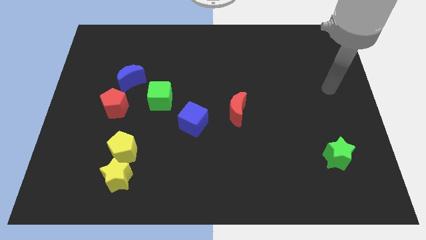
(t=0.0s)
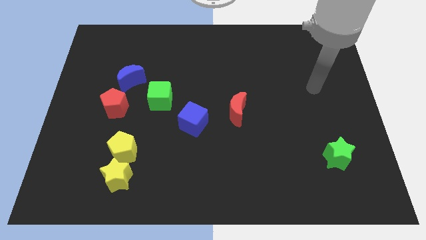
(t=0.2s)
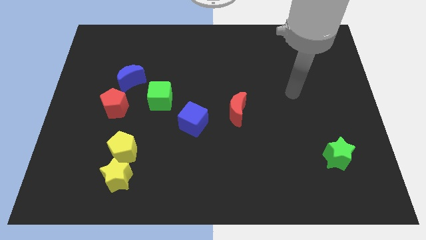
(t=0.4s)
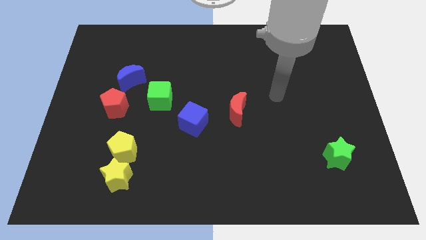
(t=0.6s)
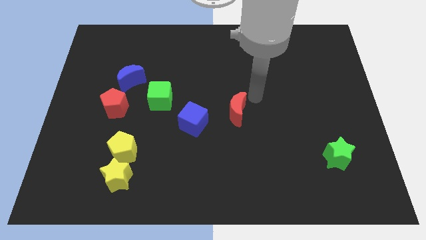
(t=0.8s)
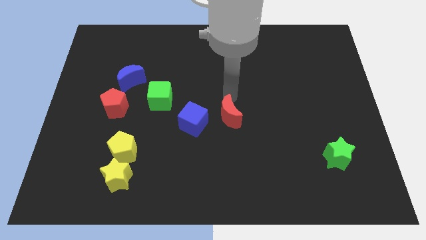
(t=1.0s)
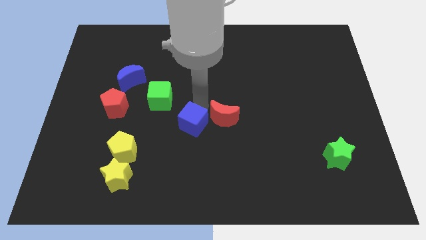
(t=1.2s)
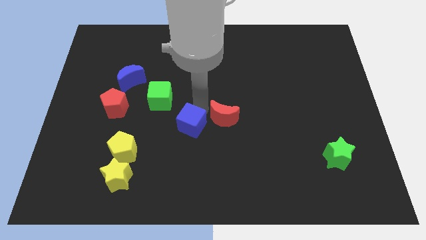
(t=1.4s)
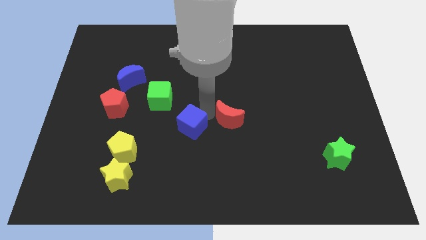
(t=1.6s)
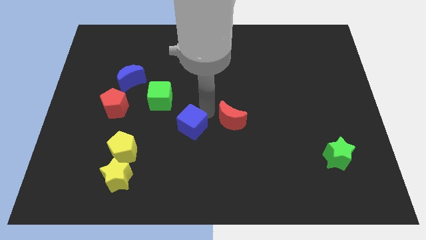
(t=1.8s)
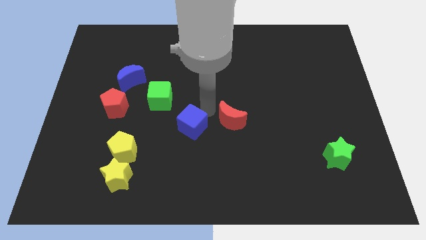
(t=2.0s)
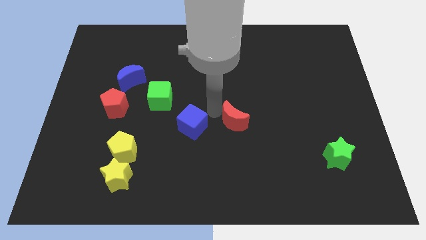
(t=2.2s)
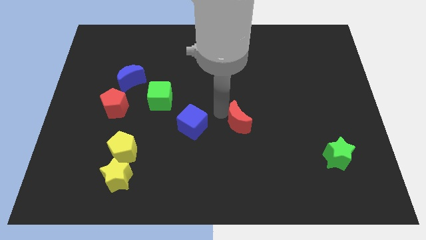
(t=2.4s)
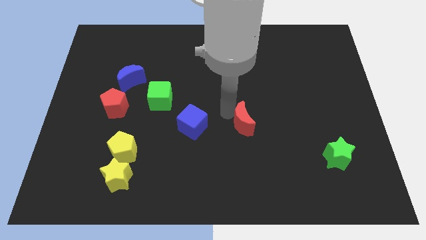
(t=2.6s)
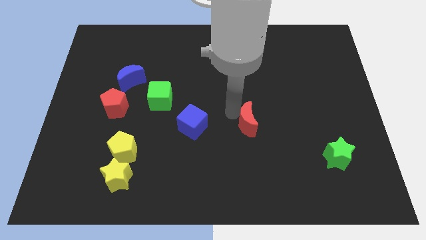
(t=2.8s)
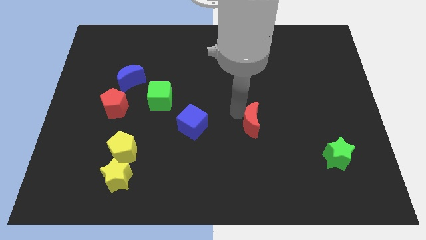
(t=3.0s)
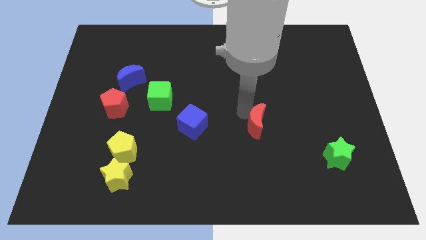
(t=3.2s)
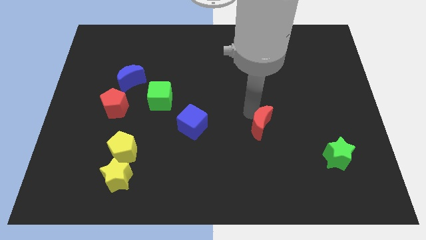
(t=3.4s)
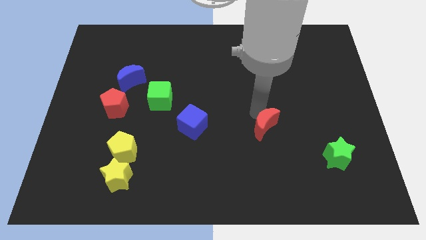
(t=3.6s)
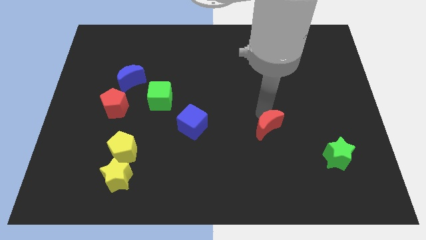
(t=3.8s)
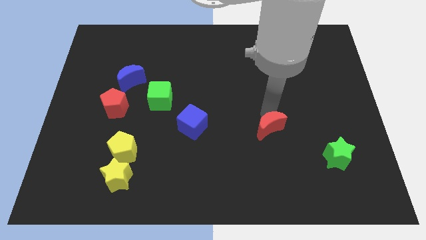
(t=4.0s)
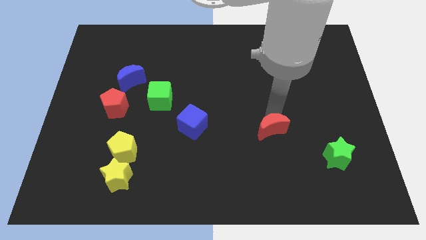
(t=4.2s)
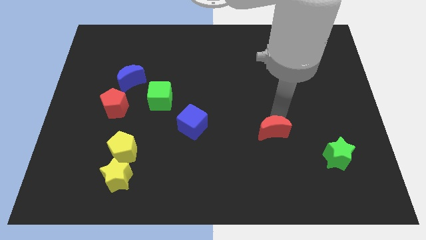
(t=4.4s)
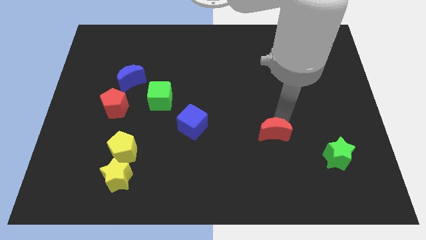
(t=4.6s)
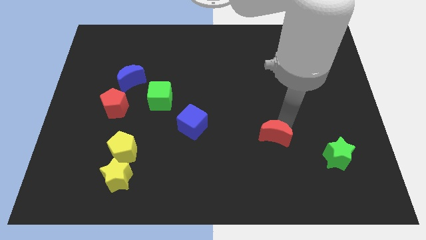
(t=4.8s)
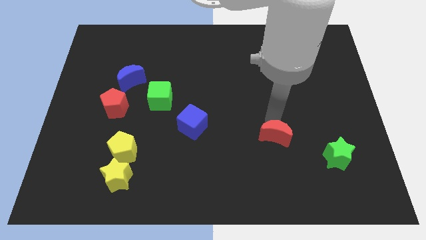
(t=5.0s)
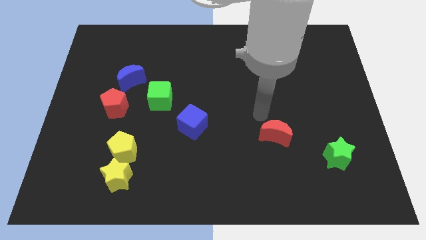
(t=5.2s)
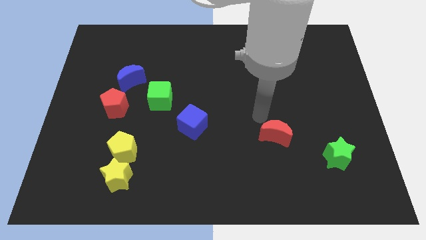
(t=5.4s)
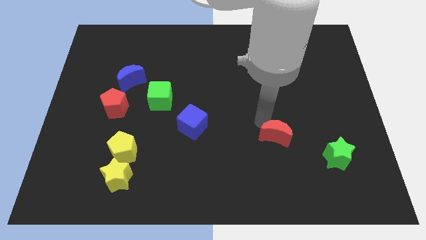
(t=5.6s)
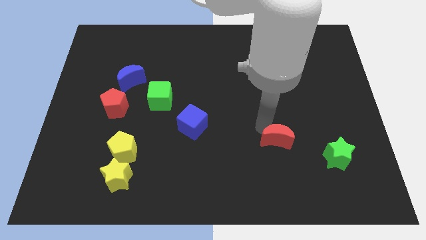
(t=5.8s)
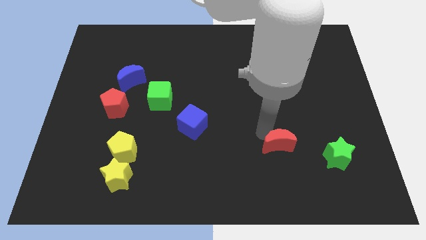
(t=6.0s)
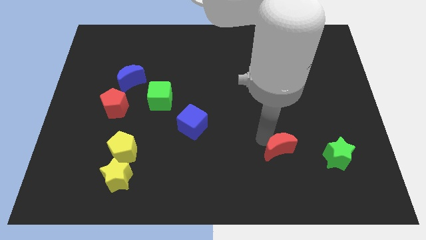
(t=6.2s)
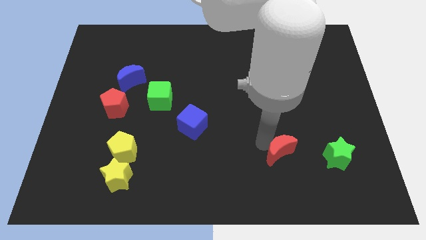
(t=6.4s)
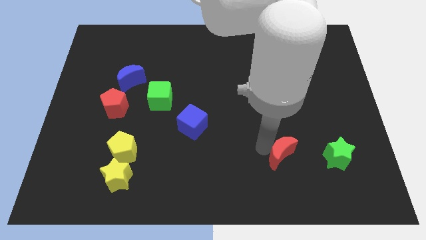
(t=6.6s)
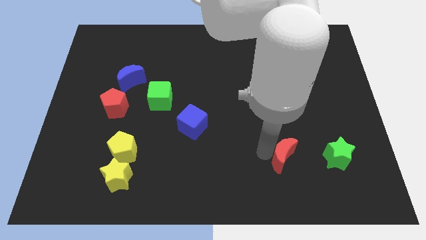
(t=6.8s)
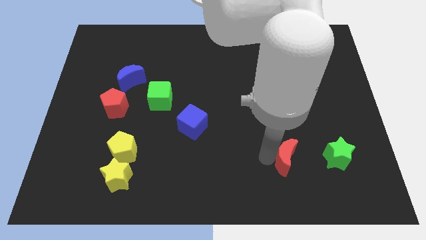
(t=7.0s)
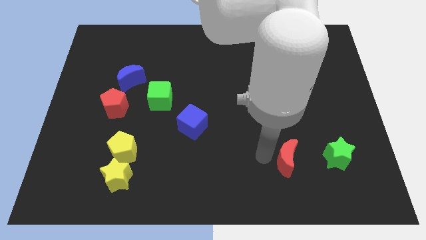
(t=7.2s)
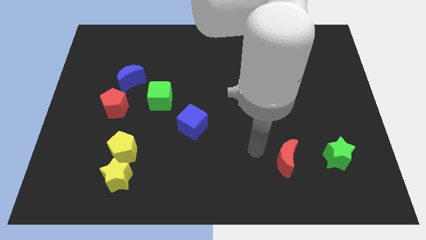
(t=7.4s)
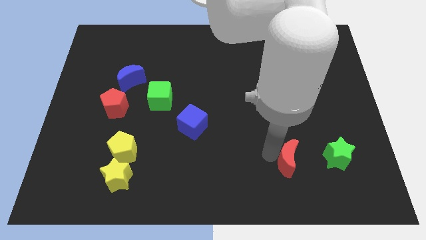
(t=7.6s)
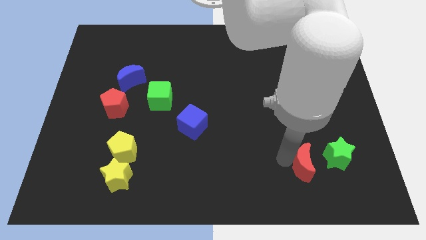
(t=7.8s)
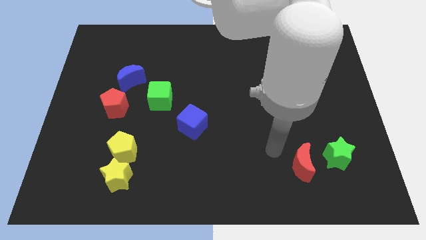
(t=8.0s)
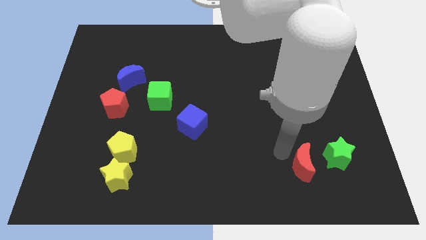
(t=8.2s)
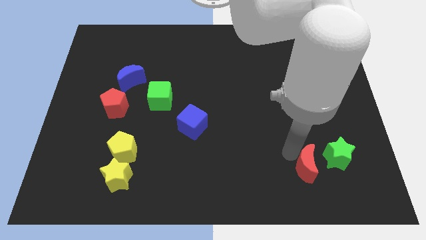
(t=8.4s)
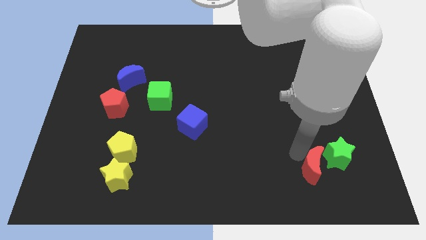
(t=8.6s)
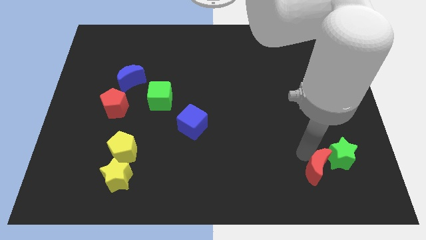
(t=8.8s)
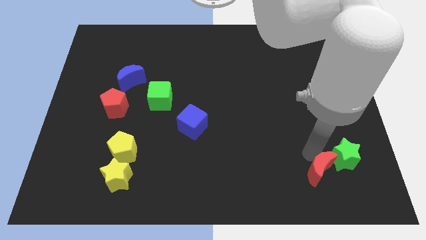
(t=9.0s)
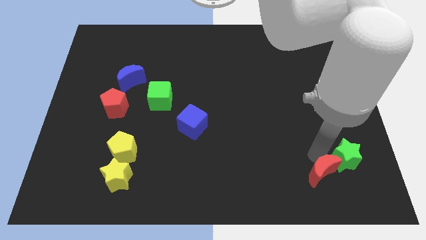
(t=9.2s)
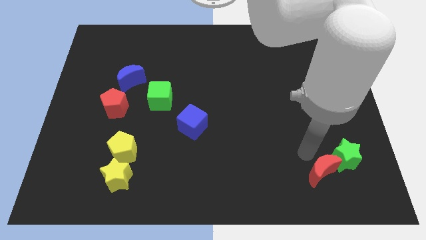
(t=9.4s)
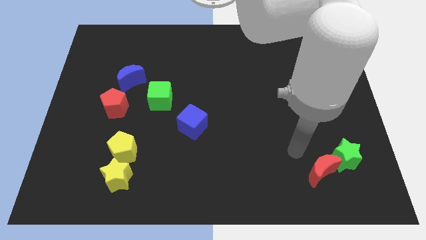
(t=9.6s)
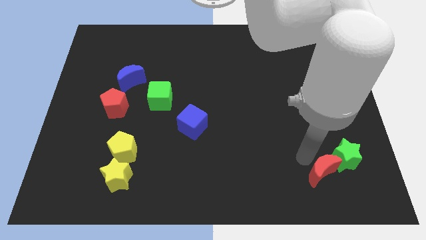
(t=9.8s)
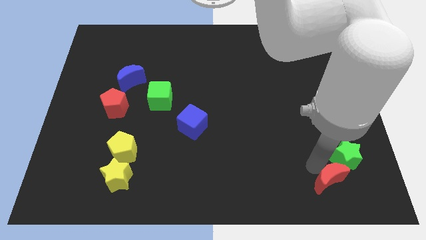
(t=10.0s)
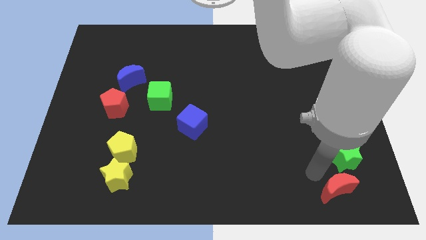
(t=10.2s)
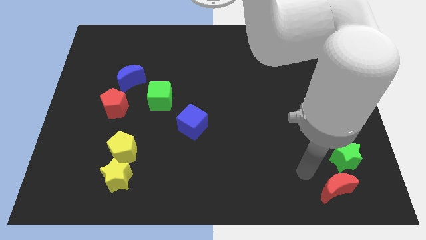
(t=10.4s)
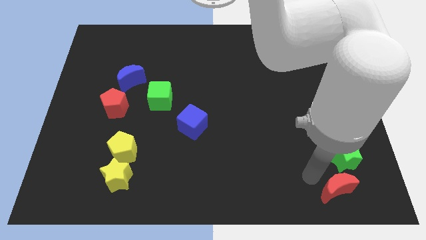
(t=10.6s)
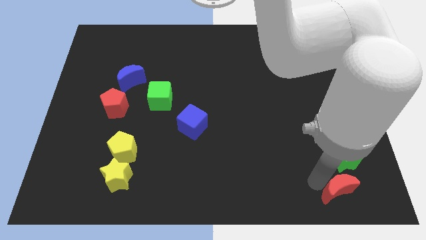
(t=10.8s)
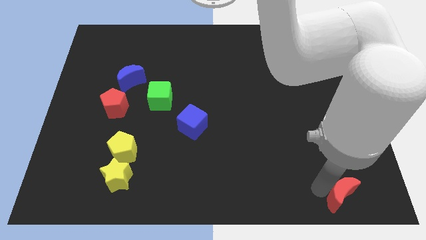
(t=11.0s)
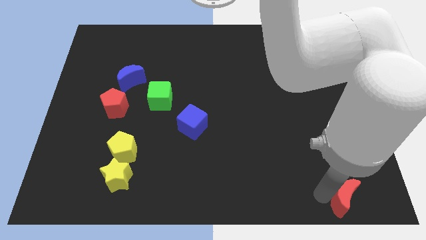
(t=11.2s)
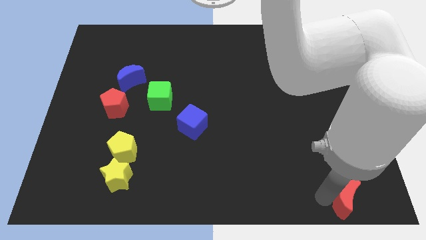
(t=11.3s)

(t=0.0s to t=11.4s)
move the red moon to the bottom right of the board
